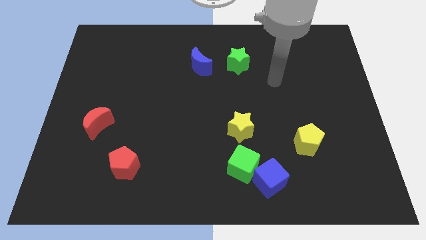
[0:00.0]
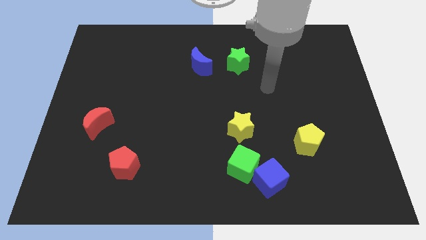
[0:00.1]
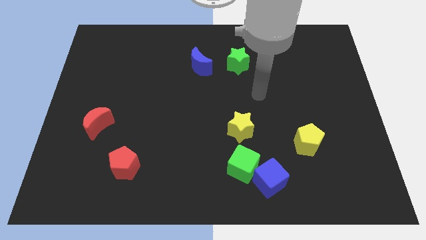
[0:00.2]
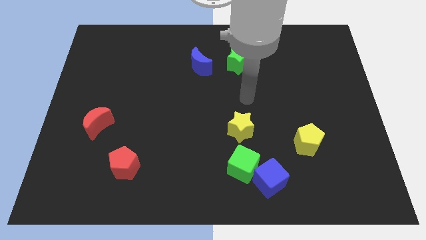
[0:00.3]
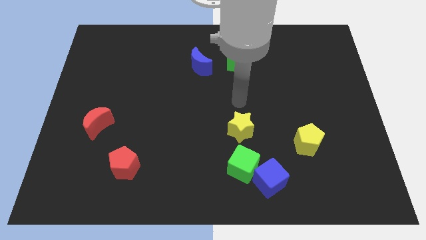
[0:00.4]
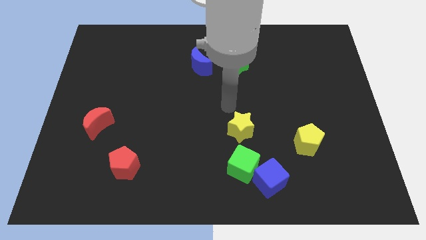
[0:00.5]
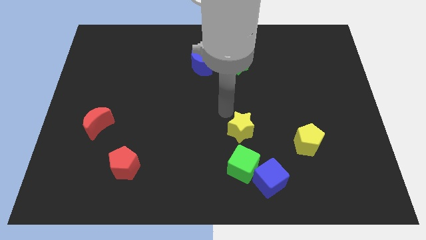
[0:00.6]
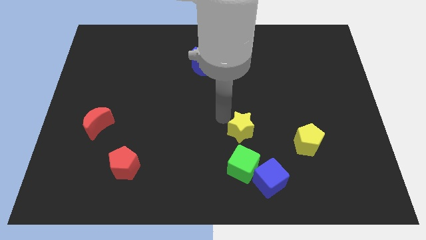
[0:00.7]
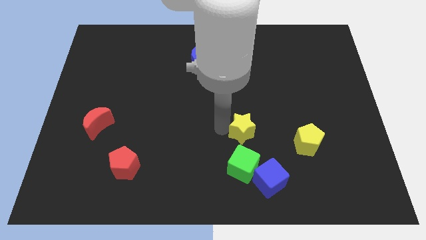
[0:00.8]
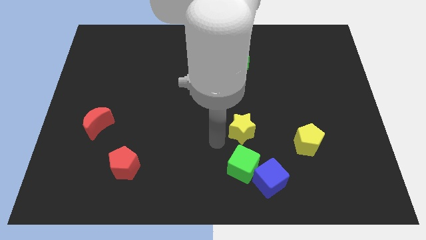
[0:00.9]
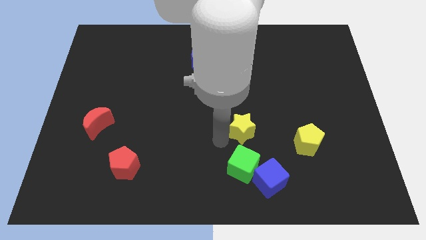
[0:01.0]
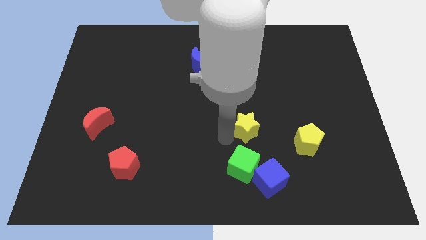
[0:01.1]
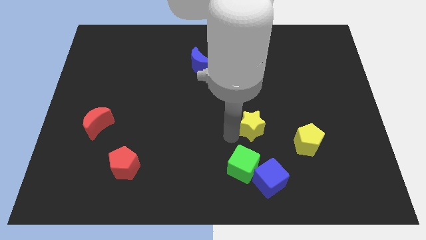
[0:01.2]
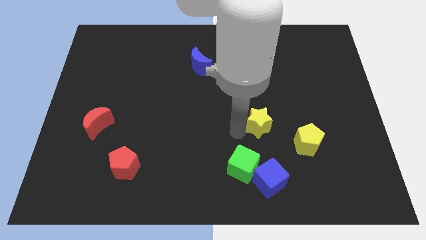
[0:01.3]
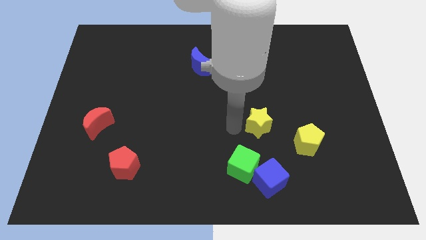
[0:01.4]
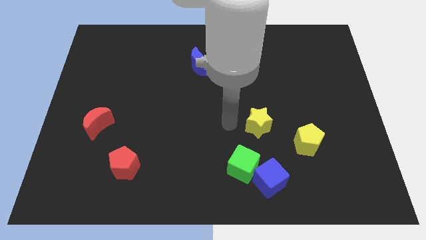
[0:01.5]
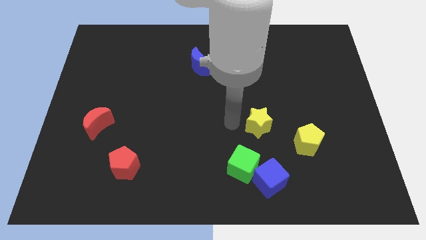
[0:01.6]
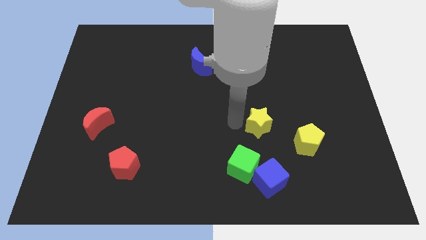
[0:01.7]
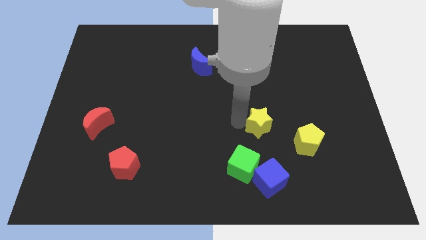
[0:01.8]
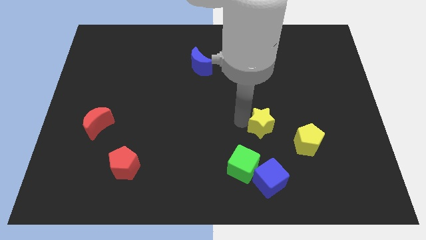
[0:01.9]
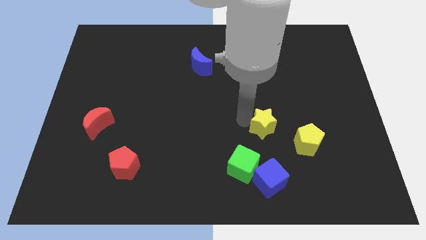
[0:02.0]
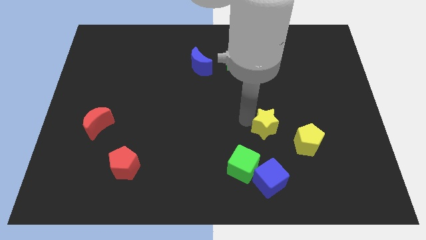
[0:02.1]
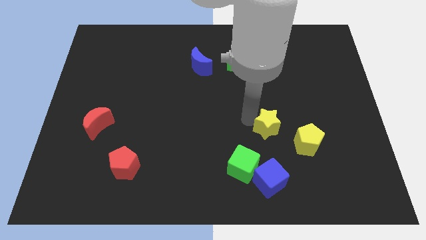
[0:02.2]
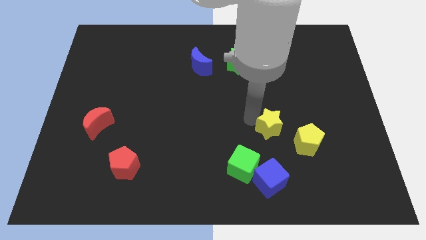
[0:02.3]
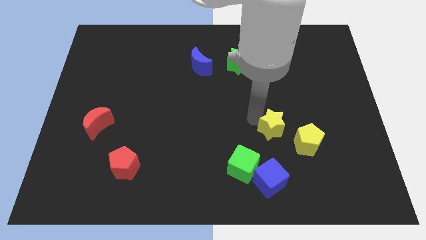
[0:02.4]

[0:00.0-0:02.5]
slightly slide the yellow star to the right

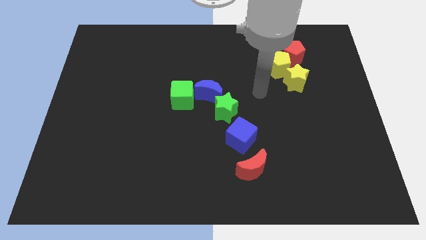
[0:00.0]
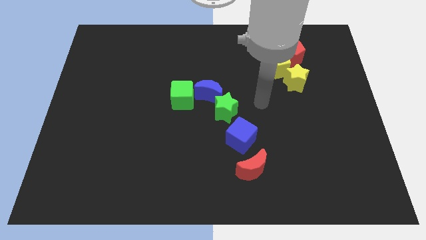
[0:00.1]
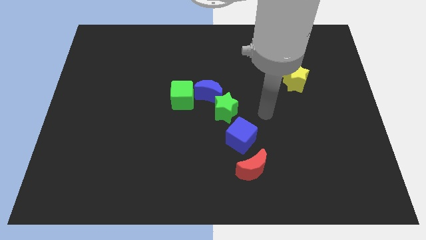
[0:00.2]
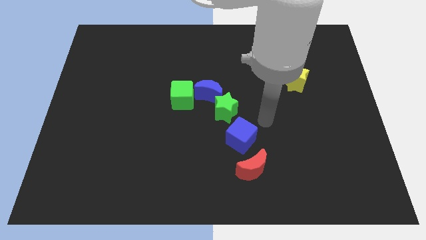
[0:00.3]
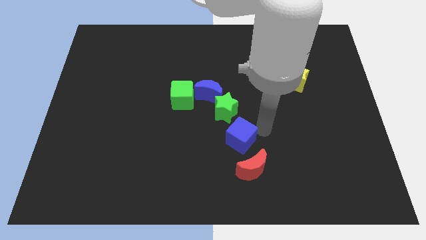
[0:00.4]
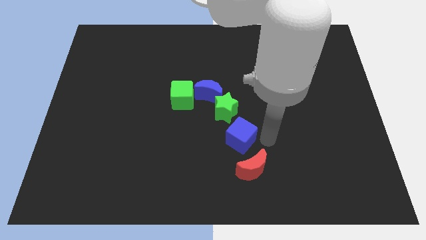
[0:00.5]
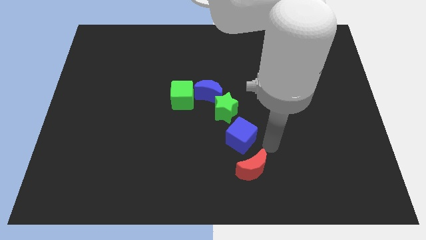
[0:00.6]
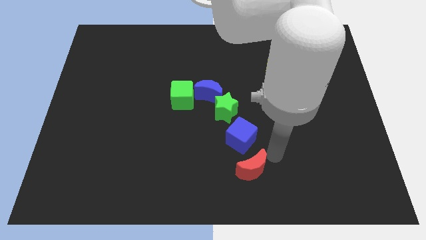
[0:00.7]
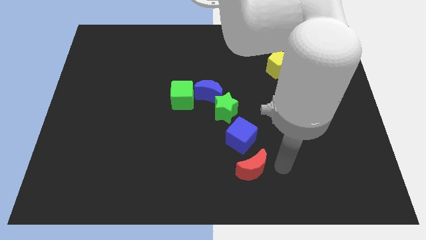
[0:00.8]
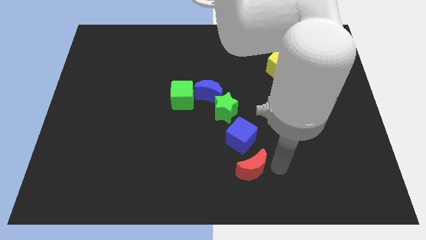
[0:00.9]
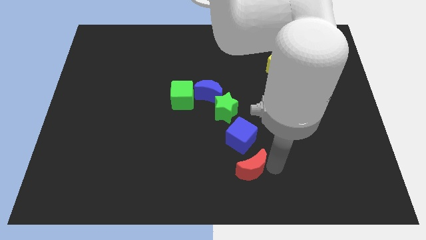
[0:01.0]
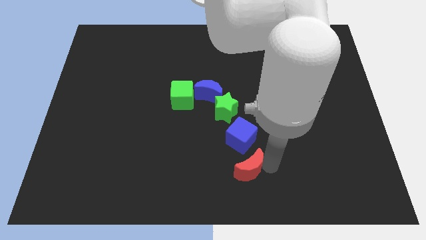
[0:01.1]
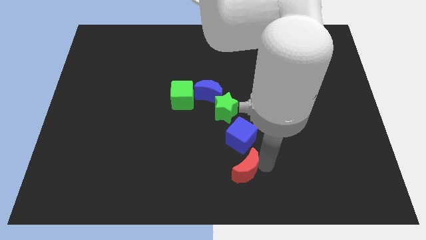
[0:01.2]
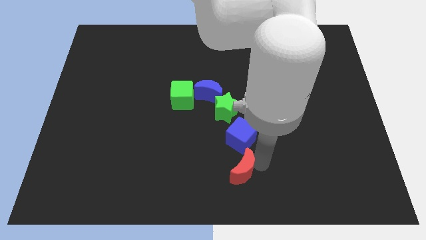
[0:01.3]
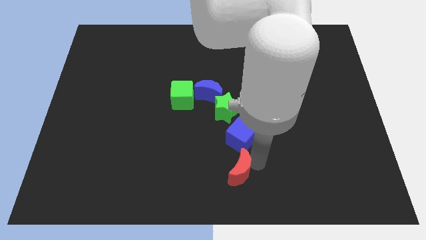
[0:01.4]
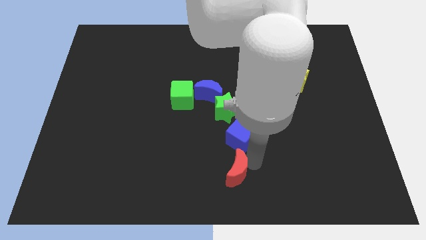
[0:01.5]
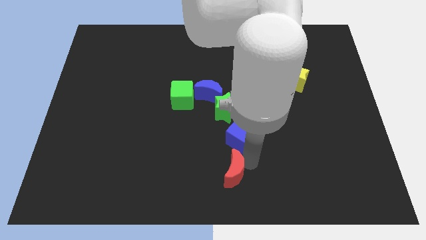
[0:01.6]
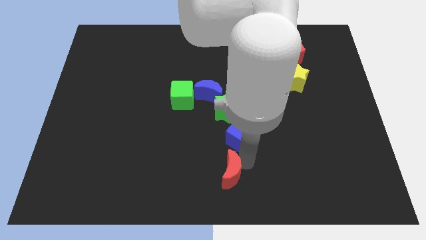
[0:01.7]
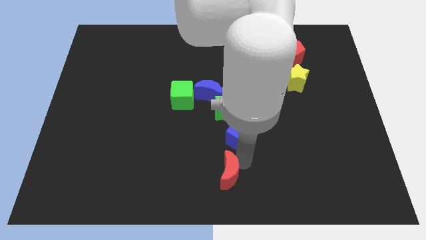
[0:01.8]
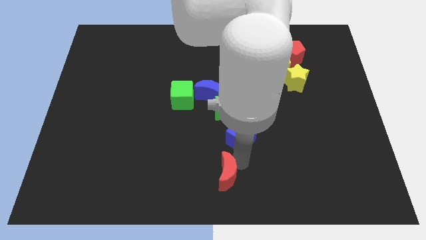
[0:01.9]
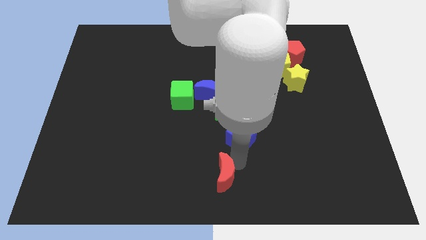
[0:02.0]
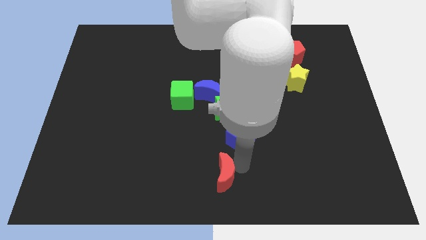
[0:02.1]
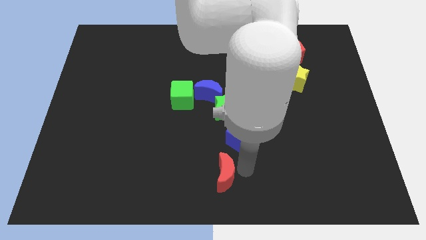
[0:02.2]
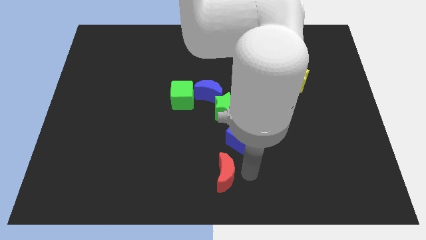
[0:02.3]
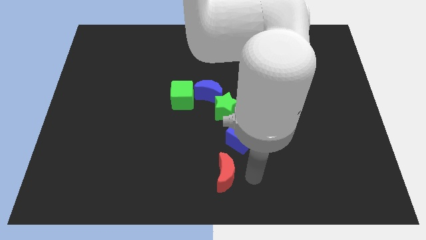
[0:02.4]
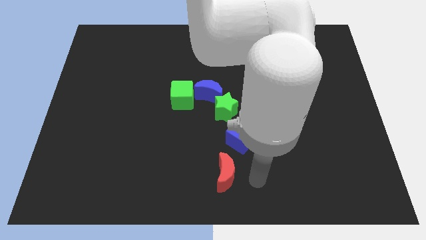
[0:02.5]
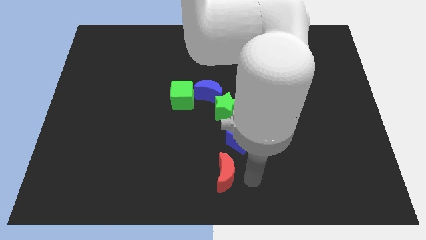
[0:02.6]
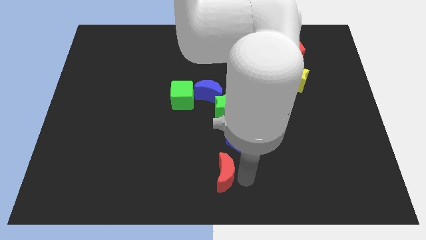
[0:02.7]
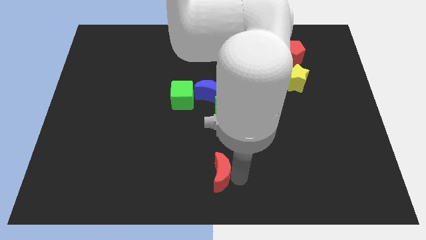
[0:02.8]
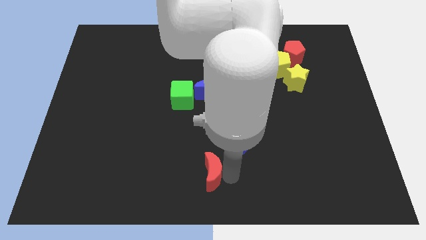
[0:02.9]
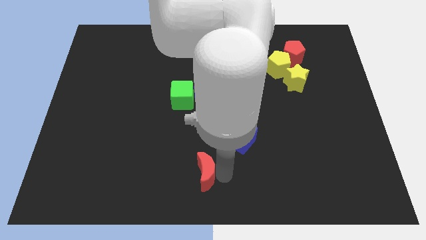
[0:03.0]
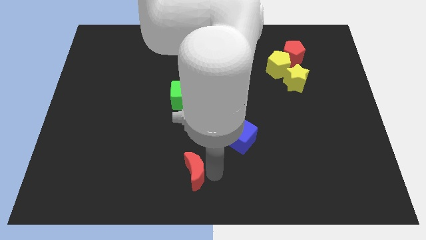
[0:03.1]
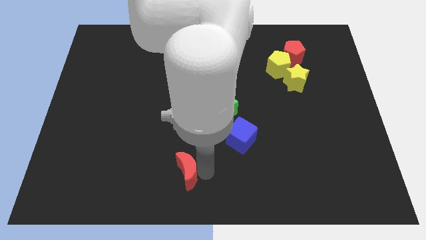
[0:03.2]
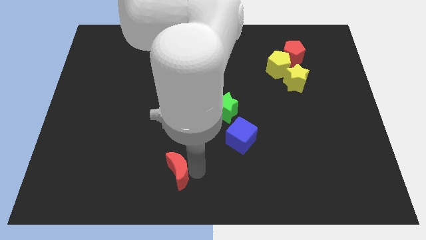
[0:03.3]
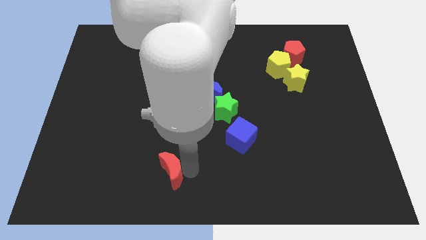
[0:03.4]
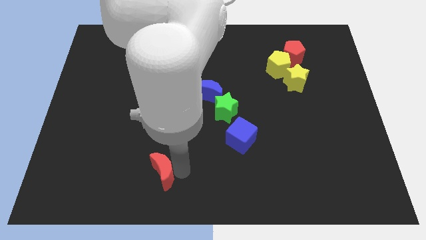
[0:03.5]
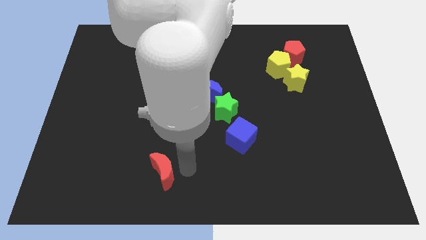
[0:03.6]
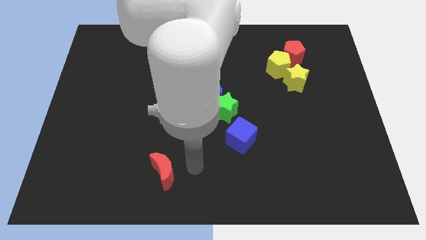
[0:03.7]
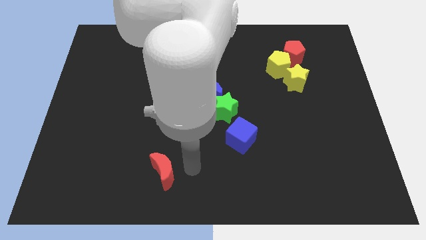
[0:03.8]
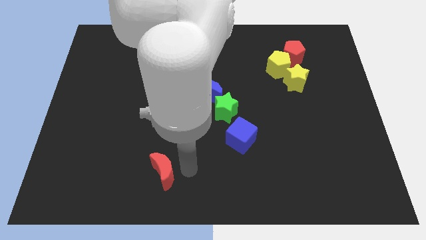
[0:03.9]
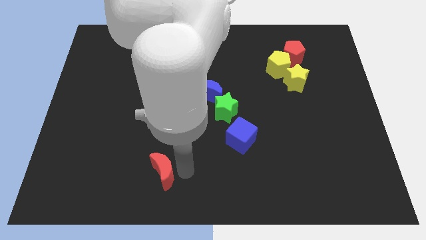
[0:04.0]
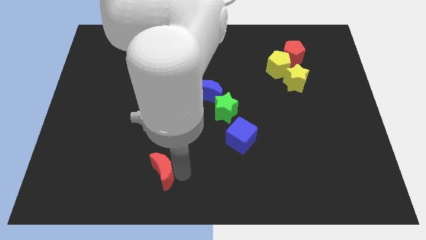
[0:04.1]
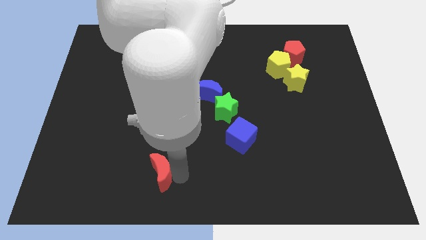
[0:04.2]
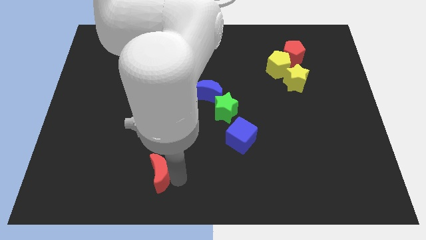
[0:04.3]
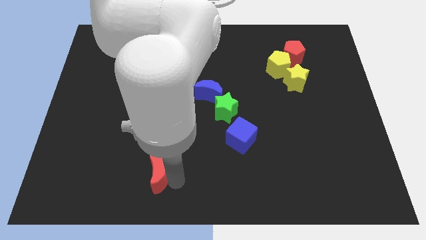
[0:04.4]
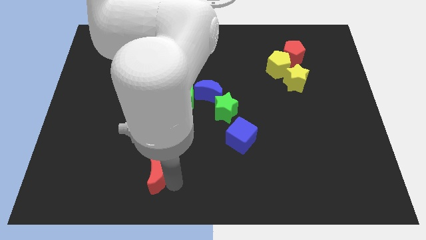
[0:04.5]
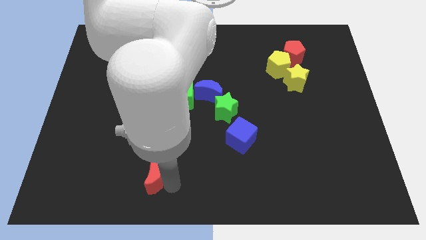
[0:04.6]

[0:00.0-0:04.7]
push the red moon left

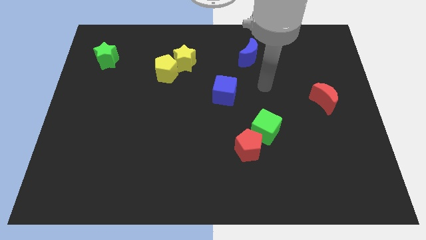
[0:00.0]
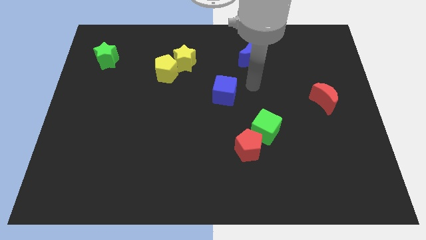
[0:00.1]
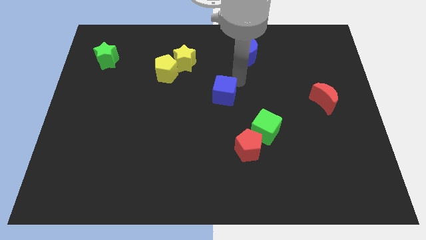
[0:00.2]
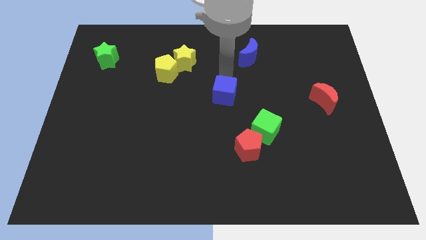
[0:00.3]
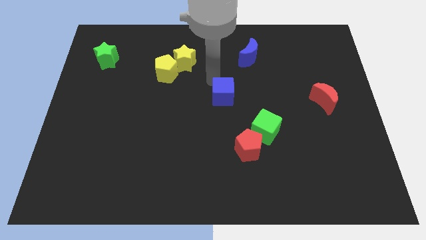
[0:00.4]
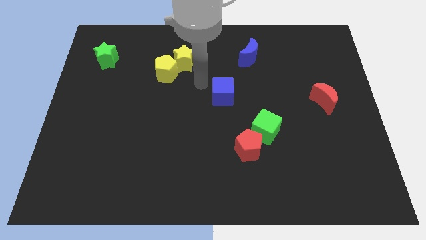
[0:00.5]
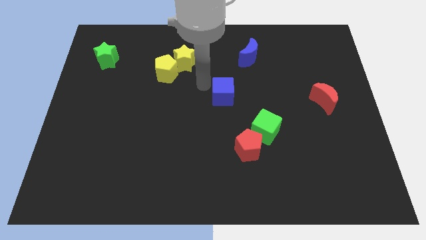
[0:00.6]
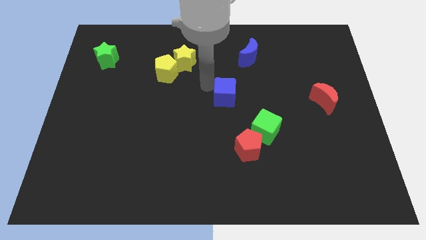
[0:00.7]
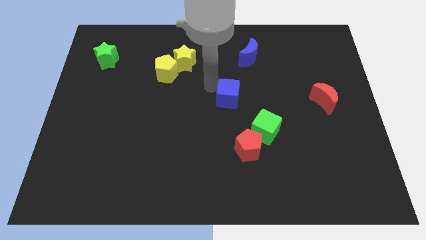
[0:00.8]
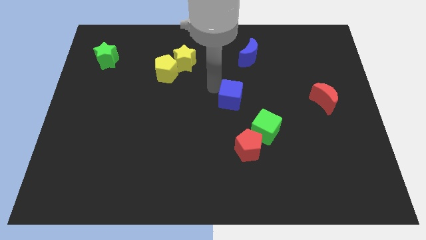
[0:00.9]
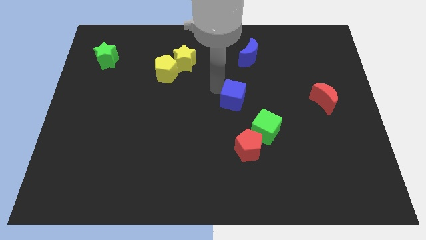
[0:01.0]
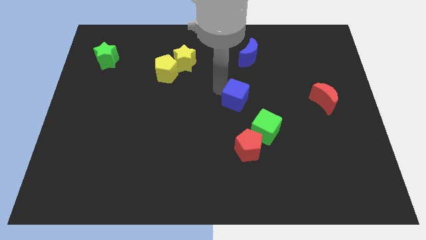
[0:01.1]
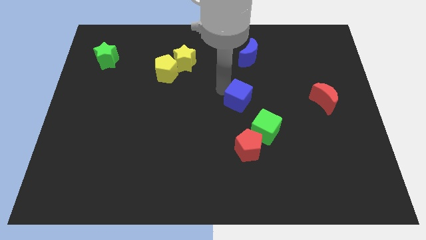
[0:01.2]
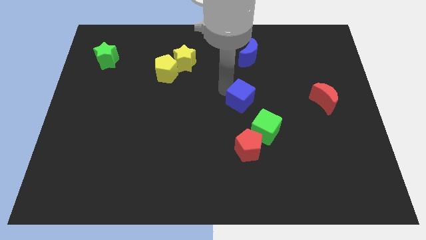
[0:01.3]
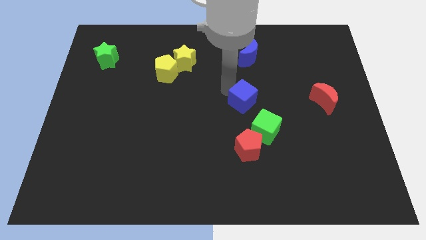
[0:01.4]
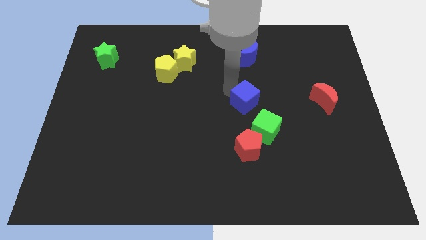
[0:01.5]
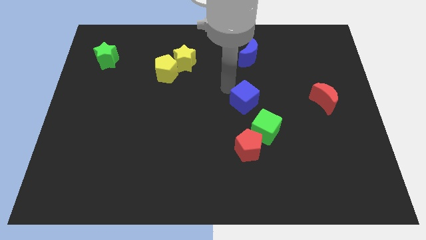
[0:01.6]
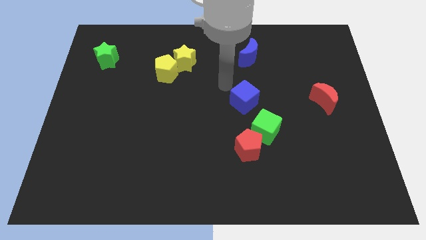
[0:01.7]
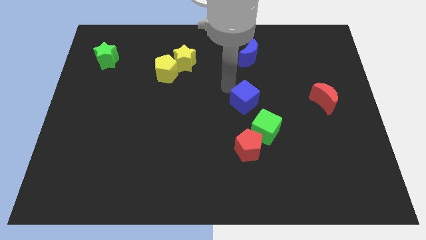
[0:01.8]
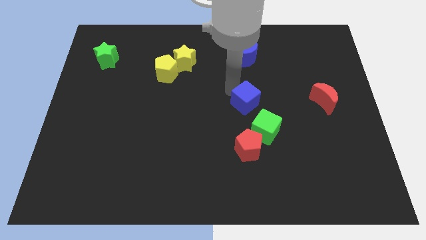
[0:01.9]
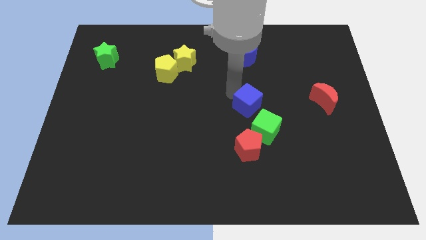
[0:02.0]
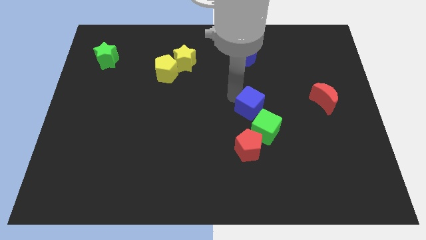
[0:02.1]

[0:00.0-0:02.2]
move the blue cube somewhat downwards and right
